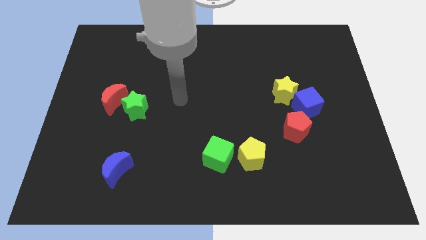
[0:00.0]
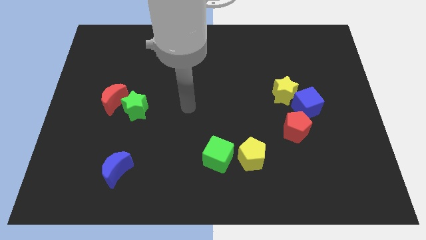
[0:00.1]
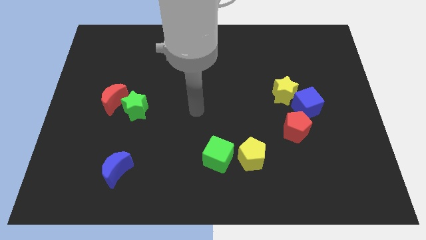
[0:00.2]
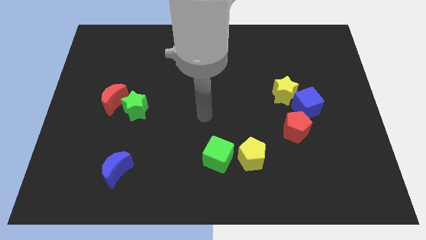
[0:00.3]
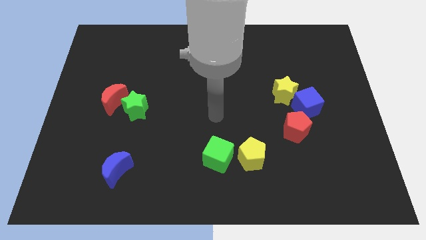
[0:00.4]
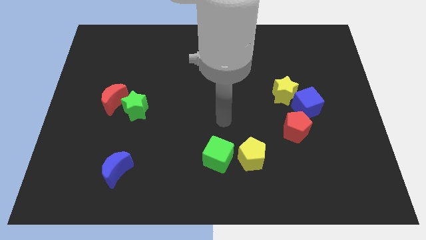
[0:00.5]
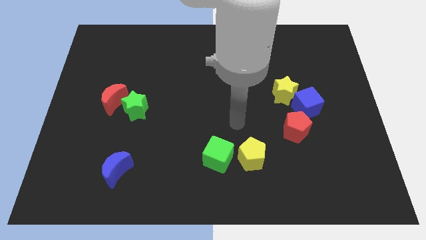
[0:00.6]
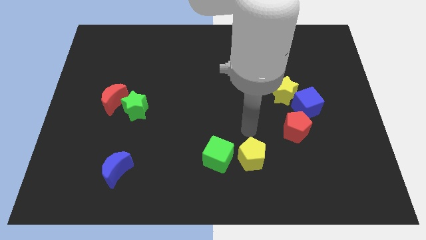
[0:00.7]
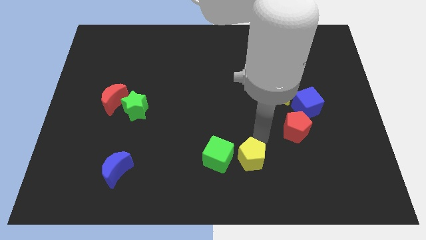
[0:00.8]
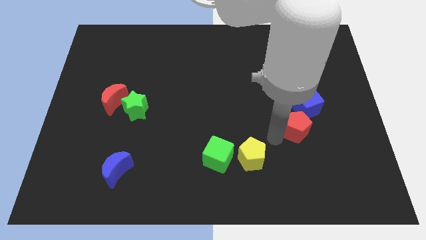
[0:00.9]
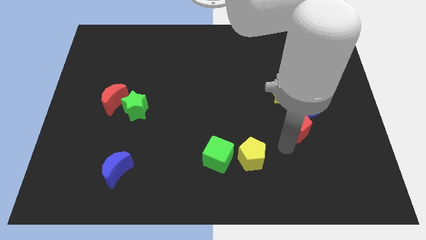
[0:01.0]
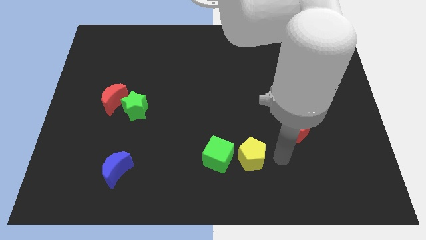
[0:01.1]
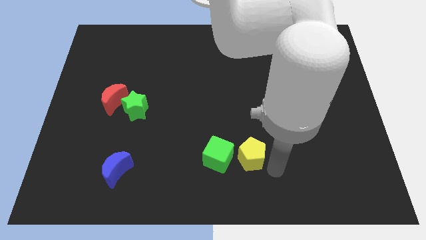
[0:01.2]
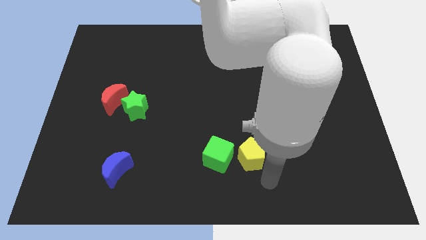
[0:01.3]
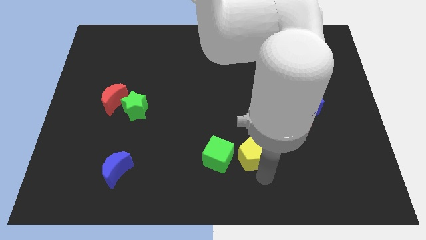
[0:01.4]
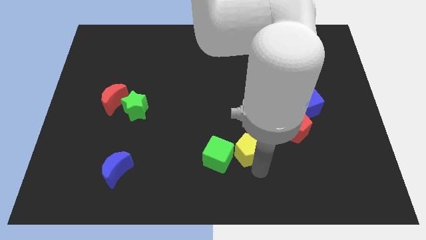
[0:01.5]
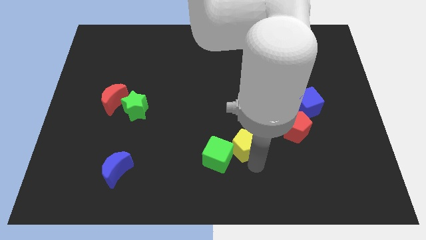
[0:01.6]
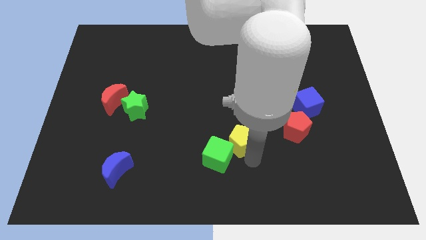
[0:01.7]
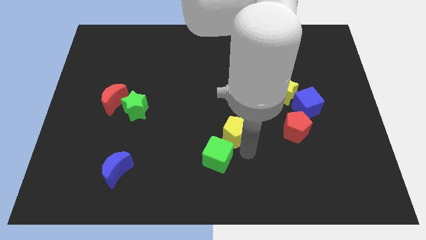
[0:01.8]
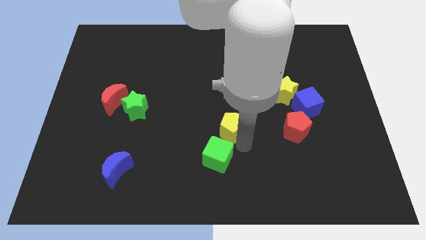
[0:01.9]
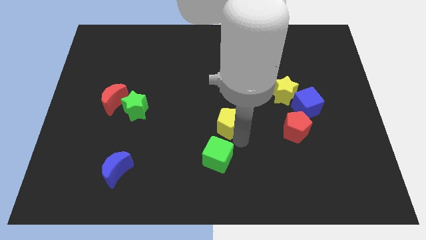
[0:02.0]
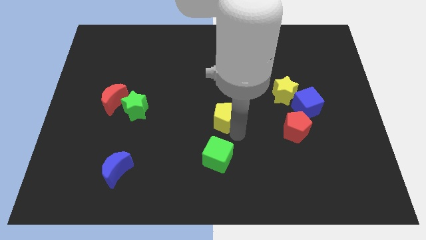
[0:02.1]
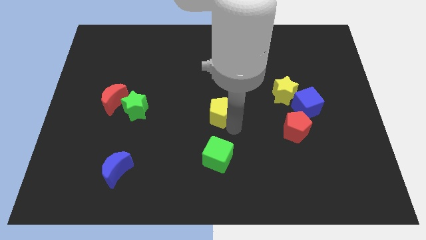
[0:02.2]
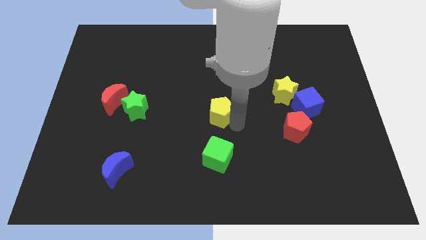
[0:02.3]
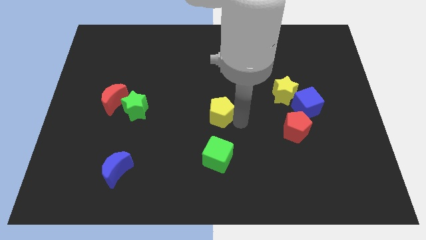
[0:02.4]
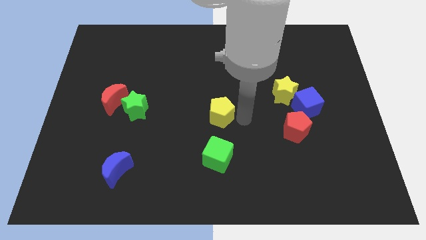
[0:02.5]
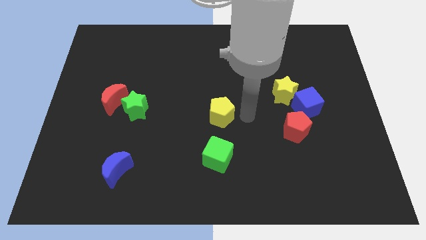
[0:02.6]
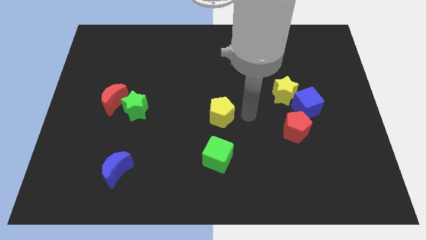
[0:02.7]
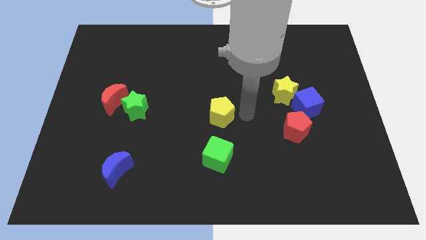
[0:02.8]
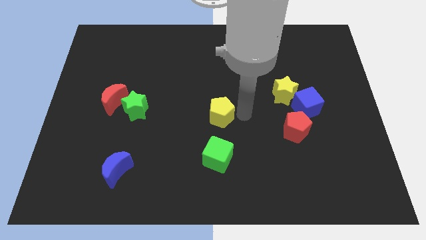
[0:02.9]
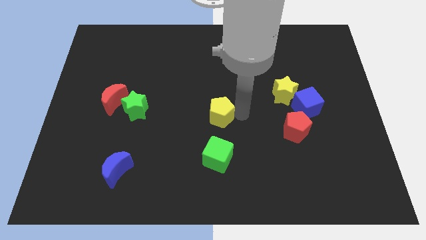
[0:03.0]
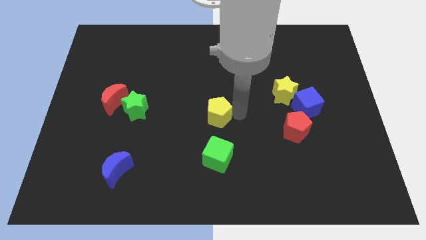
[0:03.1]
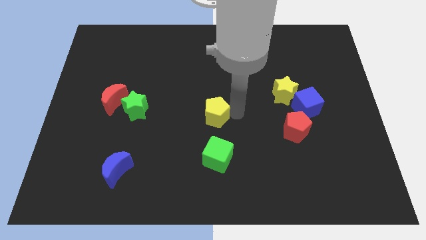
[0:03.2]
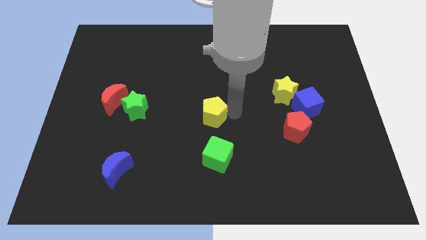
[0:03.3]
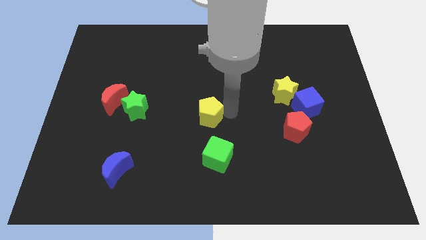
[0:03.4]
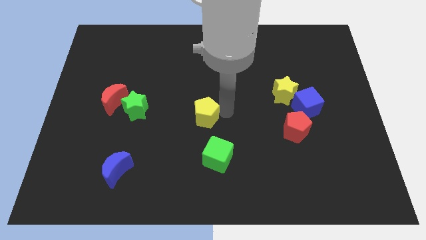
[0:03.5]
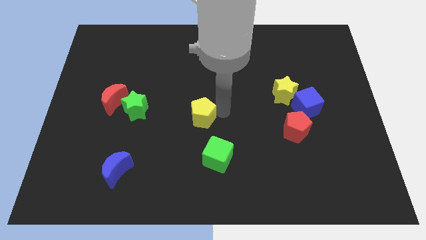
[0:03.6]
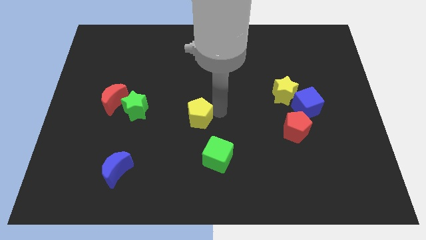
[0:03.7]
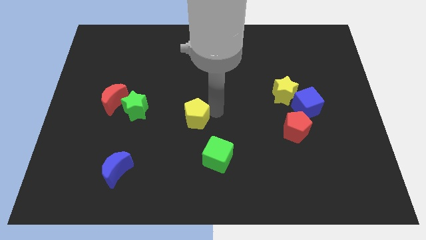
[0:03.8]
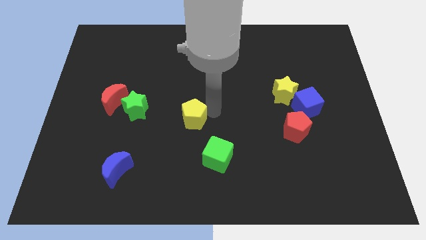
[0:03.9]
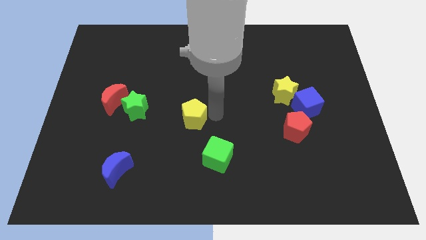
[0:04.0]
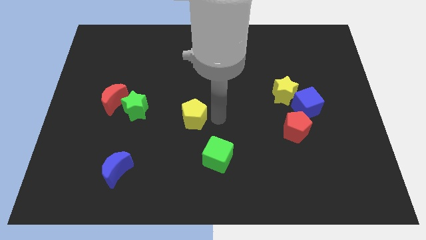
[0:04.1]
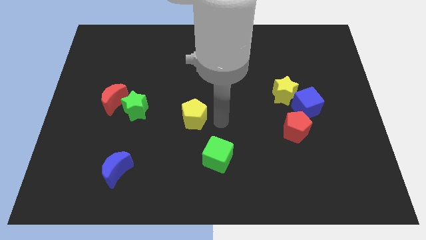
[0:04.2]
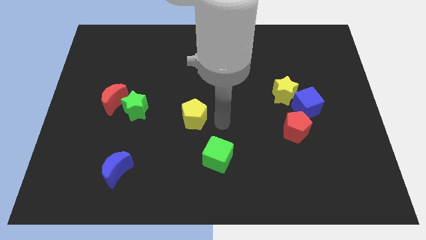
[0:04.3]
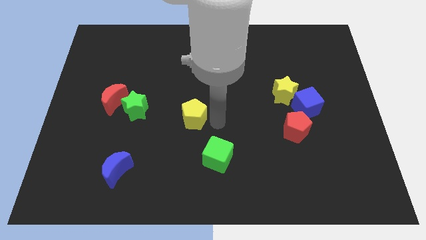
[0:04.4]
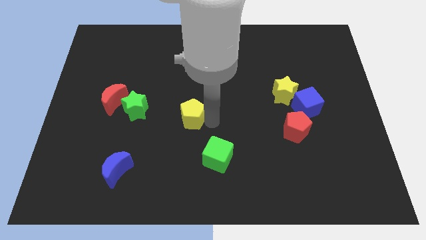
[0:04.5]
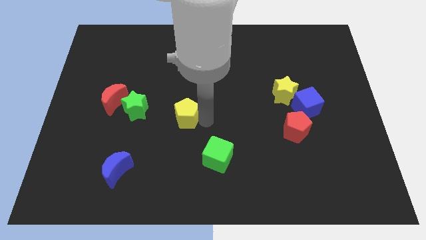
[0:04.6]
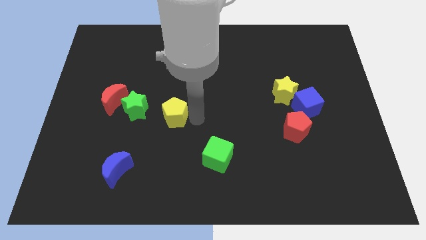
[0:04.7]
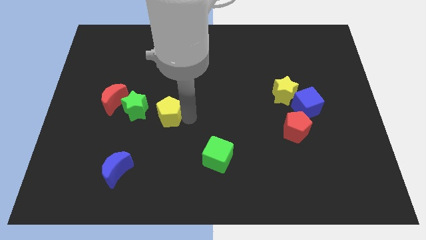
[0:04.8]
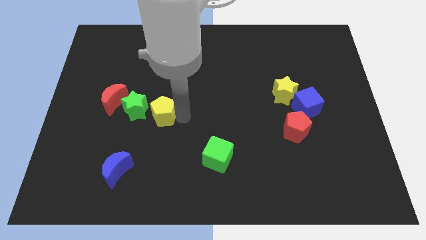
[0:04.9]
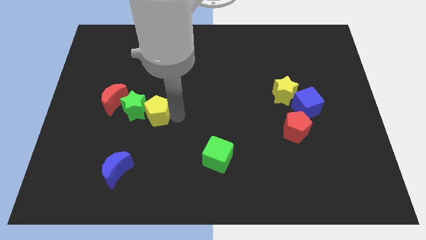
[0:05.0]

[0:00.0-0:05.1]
move the yellow pentagon towards the green star

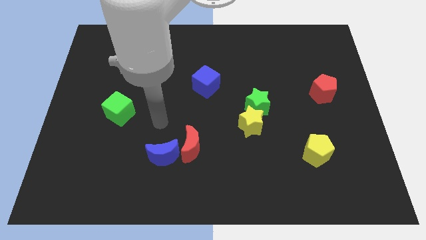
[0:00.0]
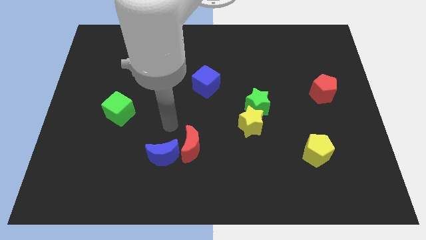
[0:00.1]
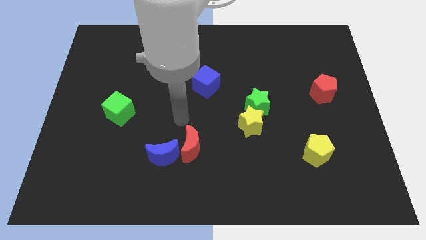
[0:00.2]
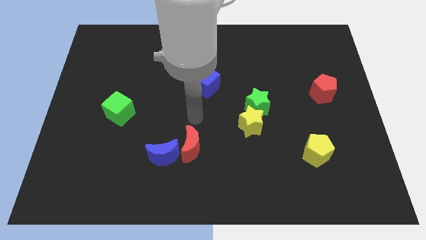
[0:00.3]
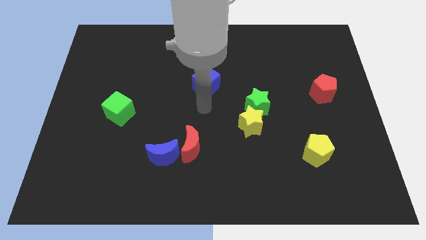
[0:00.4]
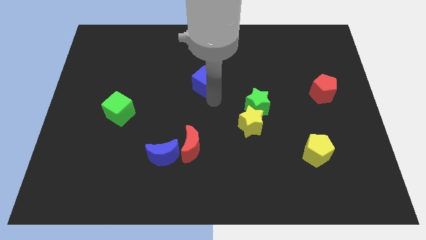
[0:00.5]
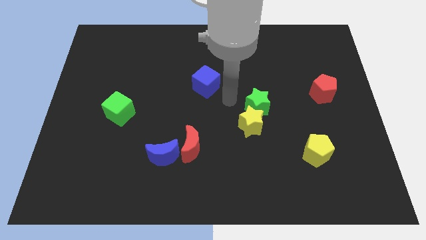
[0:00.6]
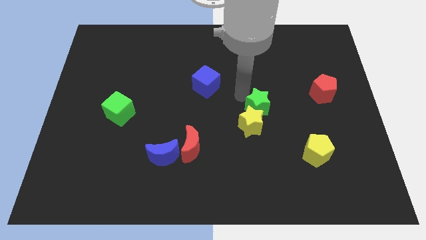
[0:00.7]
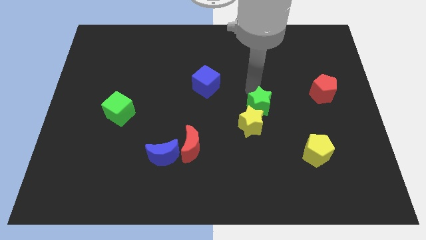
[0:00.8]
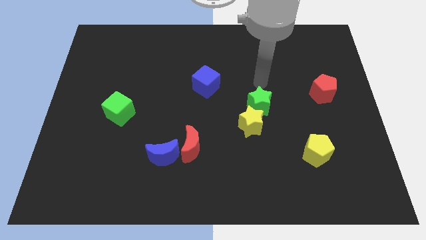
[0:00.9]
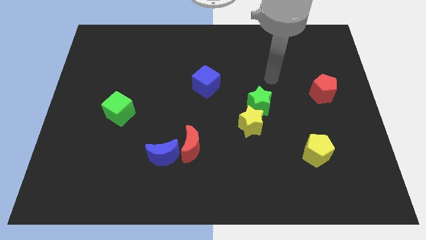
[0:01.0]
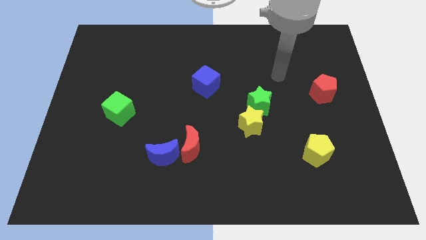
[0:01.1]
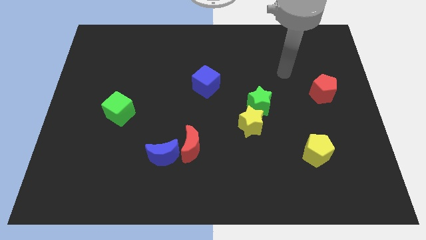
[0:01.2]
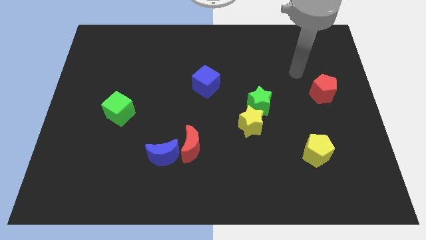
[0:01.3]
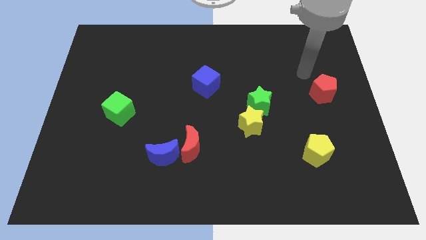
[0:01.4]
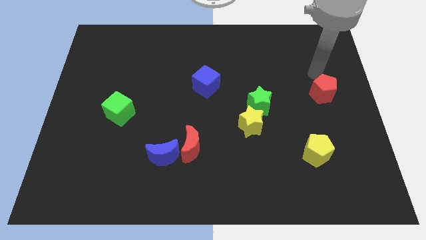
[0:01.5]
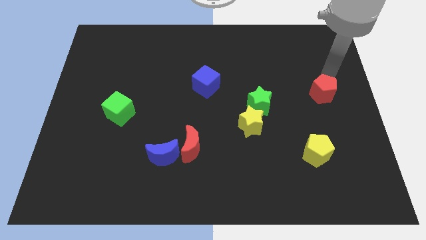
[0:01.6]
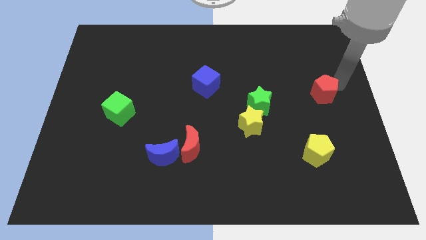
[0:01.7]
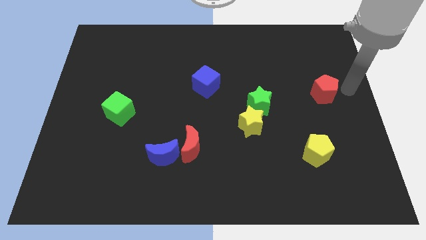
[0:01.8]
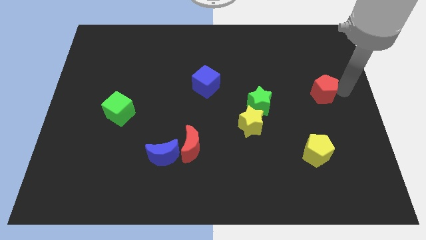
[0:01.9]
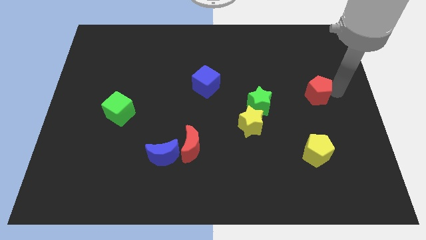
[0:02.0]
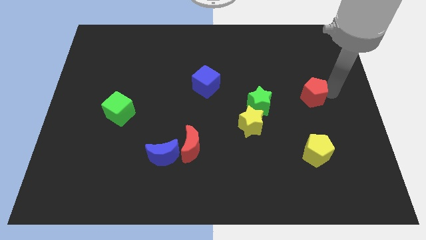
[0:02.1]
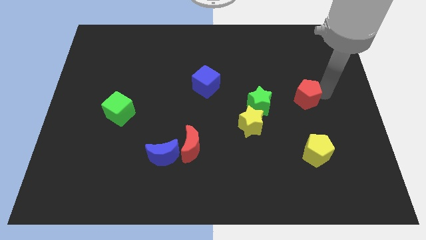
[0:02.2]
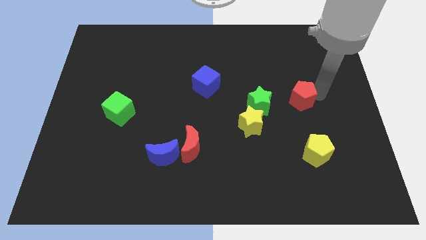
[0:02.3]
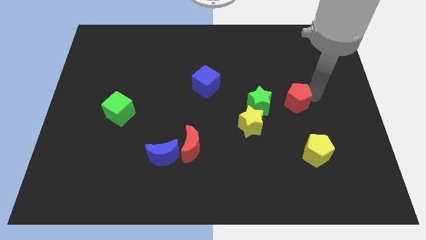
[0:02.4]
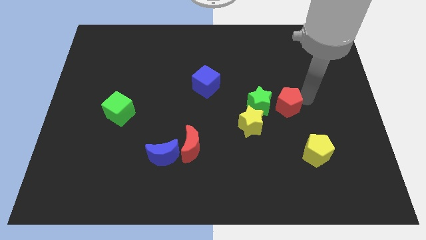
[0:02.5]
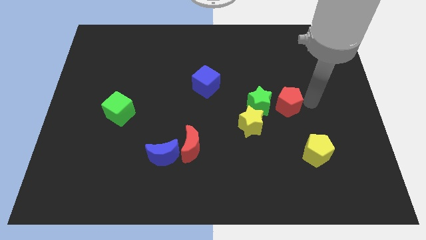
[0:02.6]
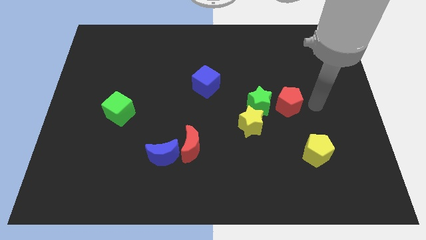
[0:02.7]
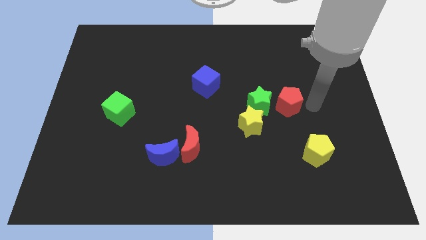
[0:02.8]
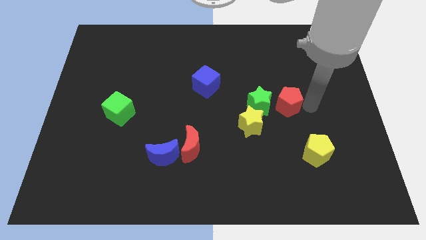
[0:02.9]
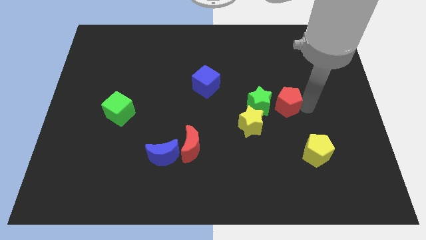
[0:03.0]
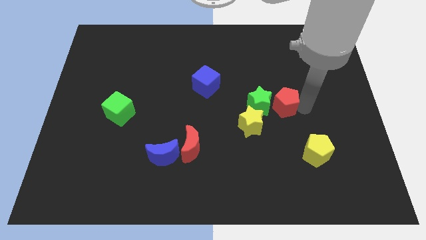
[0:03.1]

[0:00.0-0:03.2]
push the red pentagon close to the green star
